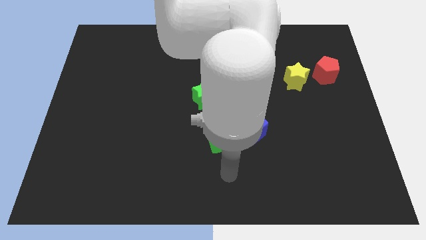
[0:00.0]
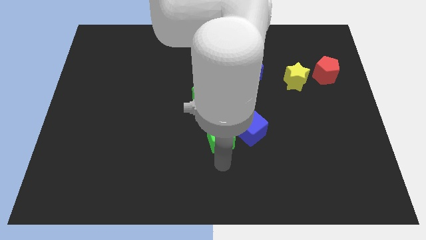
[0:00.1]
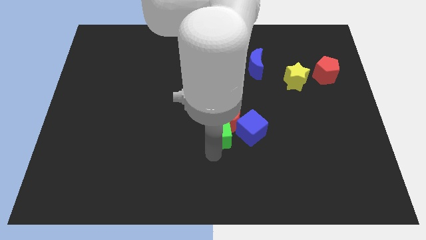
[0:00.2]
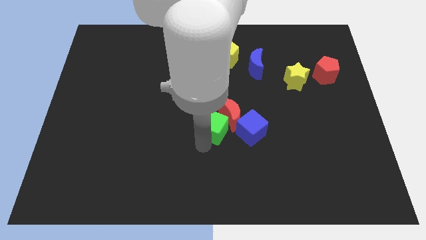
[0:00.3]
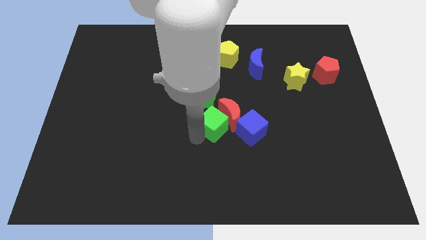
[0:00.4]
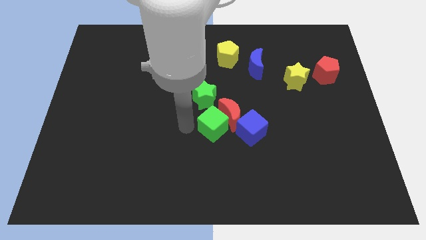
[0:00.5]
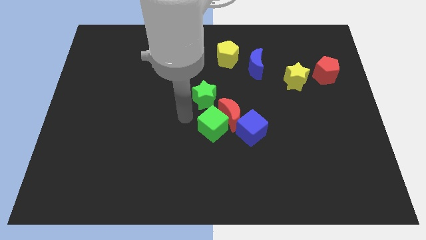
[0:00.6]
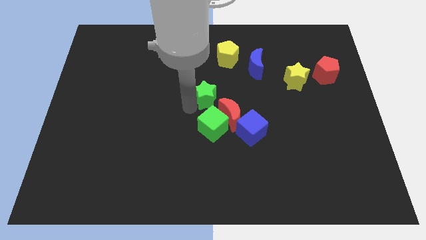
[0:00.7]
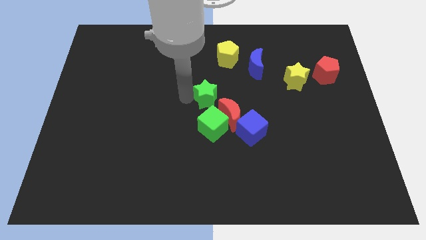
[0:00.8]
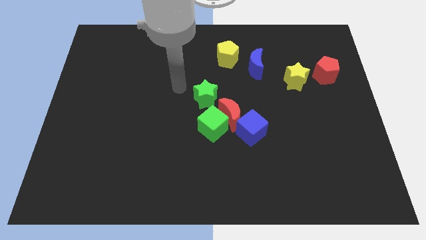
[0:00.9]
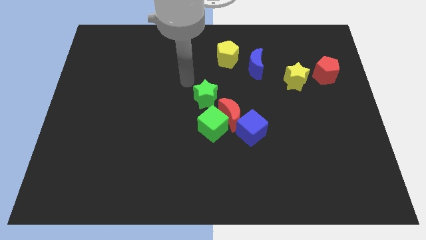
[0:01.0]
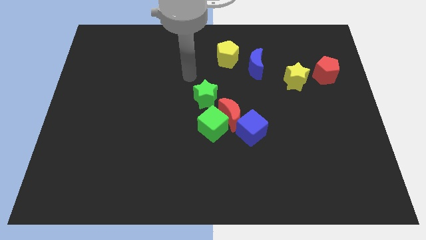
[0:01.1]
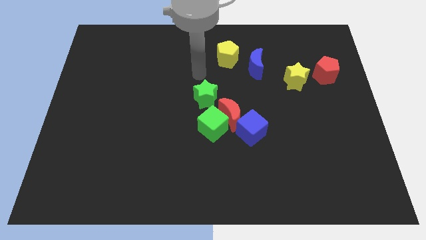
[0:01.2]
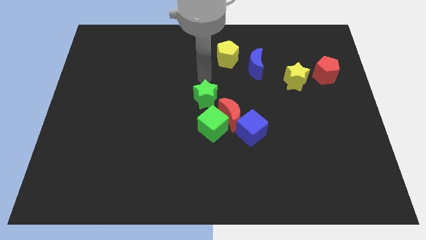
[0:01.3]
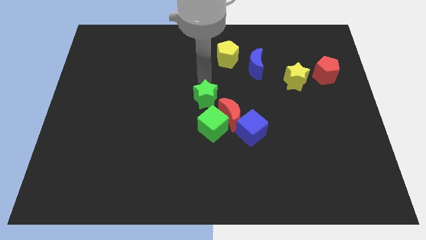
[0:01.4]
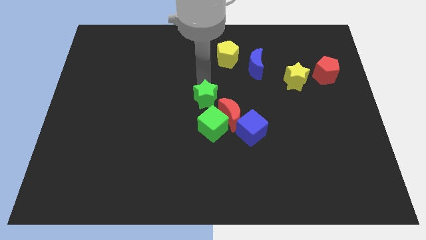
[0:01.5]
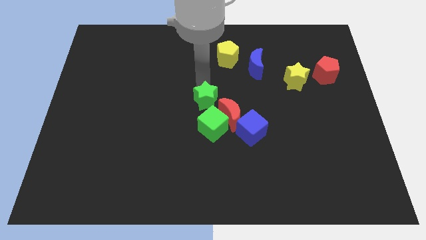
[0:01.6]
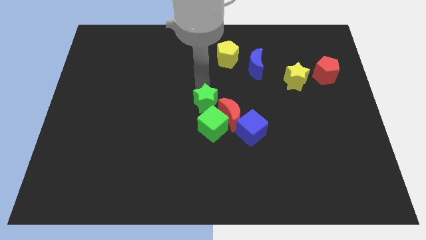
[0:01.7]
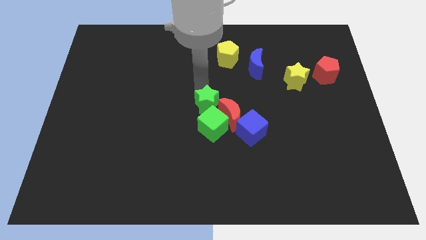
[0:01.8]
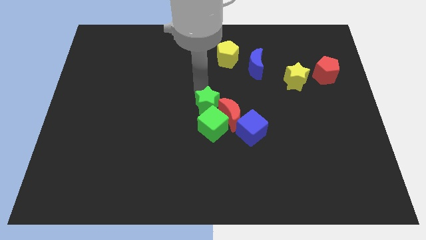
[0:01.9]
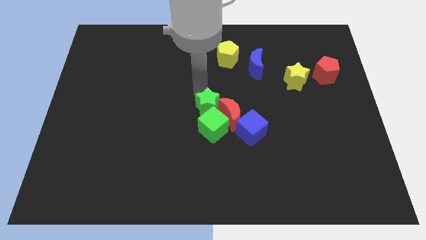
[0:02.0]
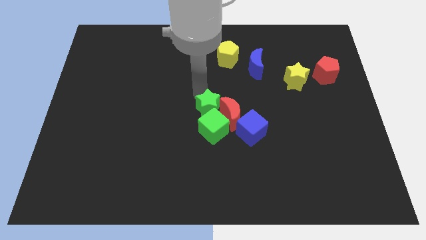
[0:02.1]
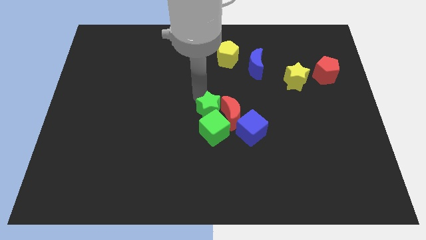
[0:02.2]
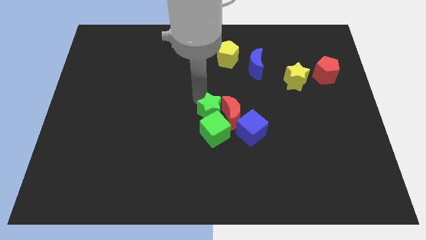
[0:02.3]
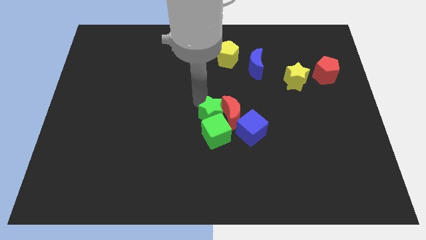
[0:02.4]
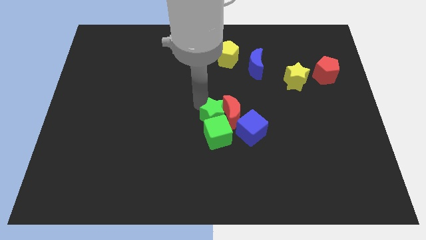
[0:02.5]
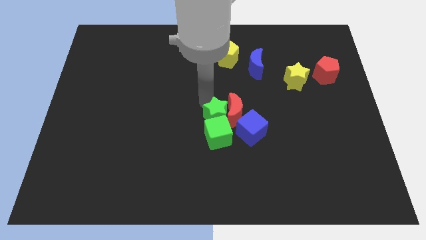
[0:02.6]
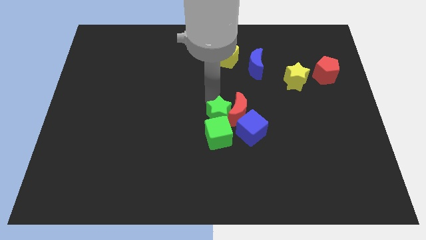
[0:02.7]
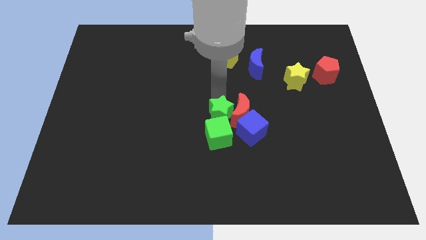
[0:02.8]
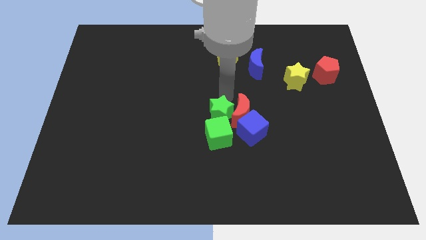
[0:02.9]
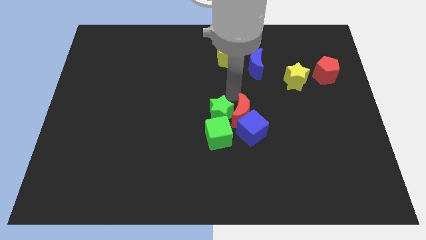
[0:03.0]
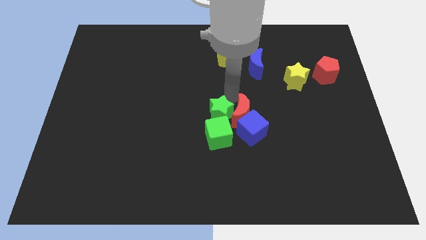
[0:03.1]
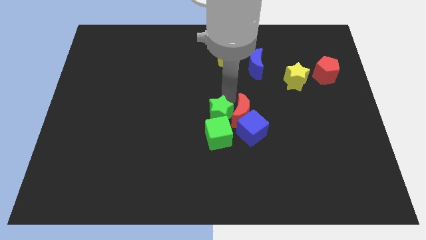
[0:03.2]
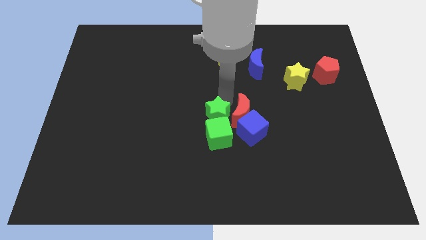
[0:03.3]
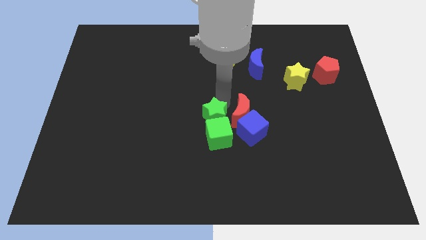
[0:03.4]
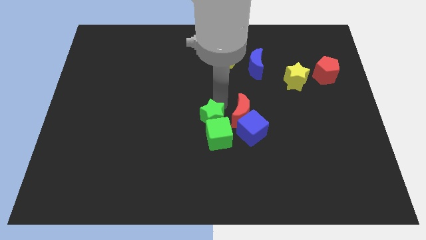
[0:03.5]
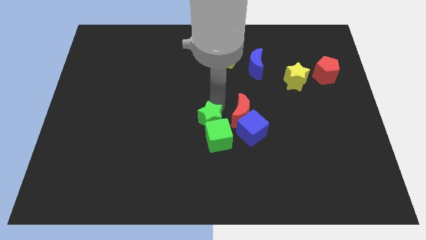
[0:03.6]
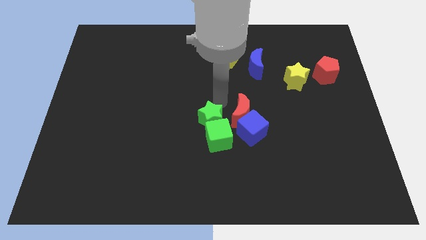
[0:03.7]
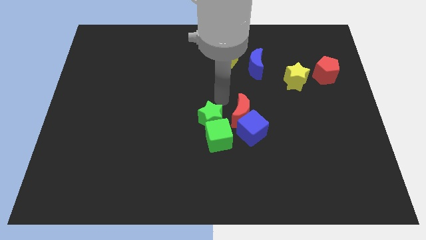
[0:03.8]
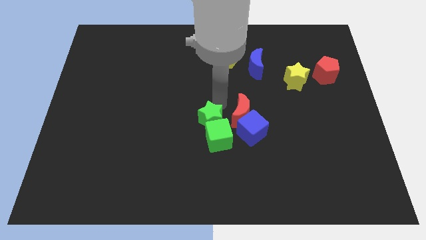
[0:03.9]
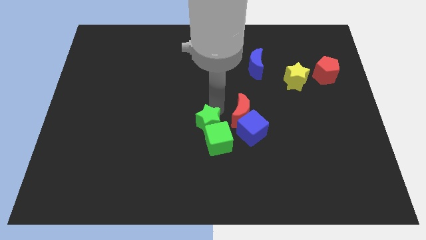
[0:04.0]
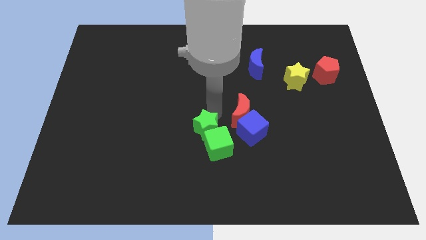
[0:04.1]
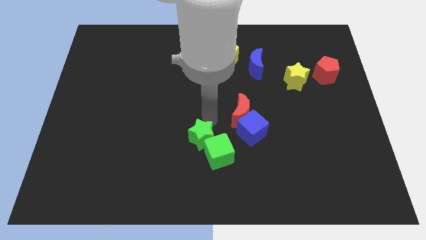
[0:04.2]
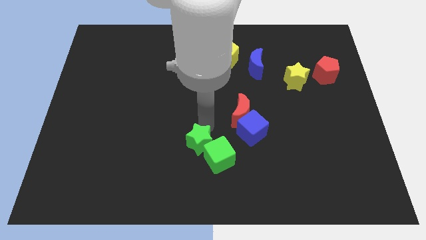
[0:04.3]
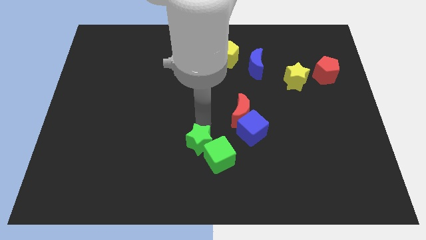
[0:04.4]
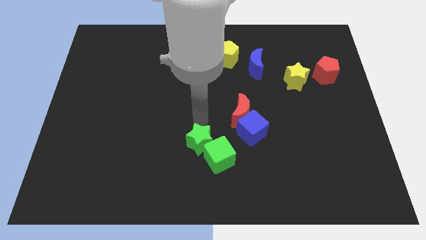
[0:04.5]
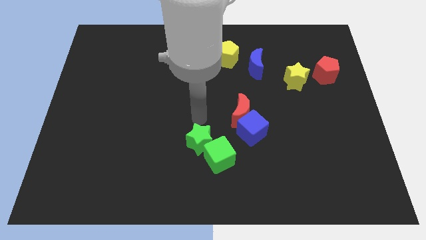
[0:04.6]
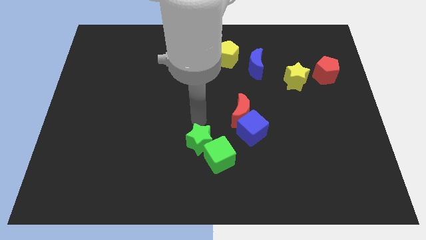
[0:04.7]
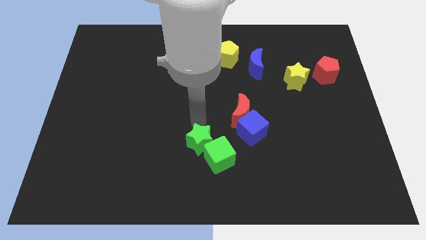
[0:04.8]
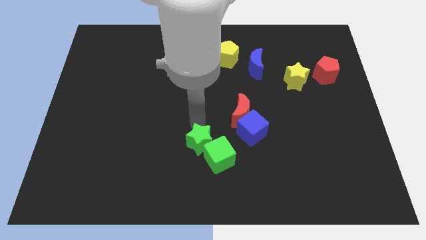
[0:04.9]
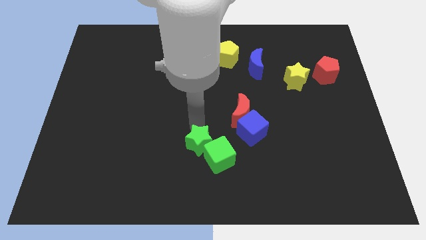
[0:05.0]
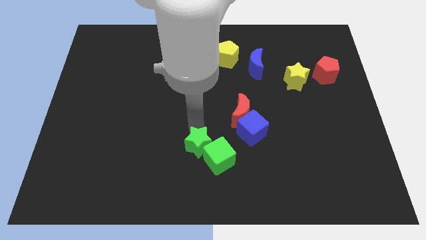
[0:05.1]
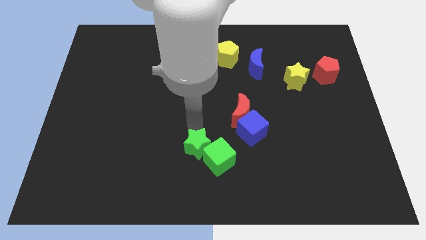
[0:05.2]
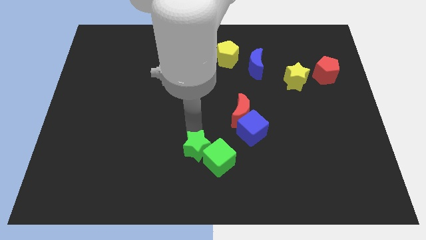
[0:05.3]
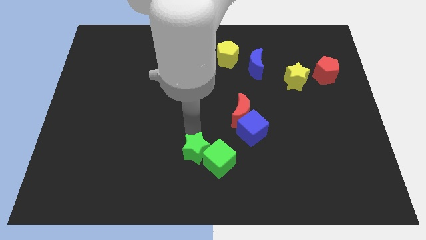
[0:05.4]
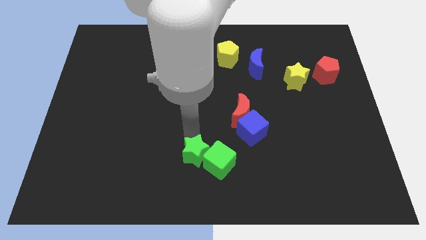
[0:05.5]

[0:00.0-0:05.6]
push the green star to the bottom
